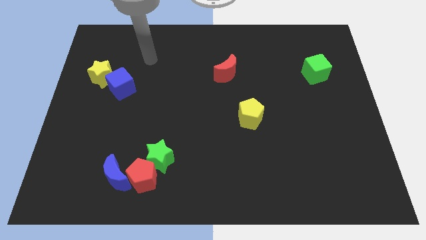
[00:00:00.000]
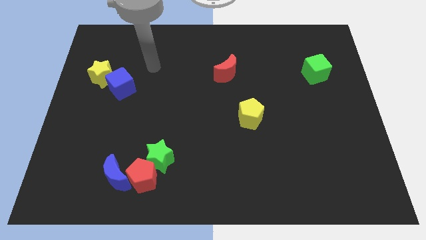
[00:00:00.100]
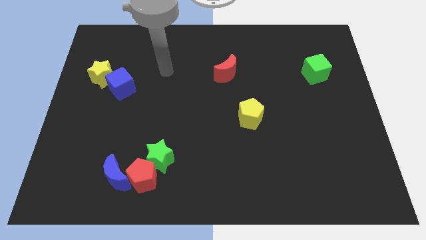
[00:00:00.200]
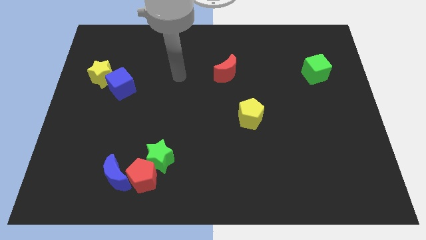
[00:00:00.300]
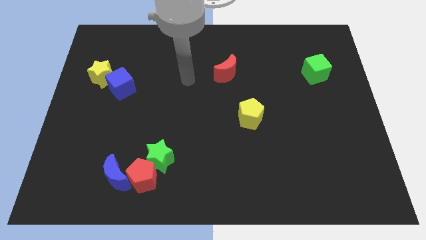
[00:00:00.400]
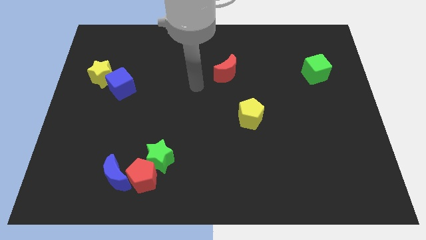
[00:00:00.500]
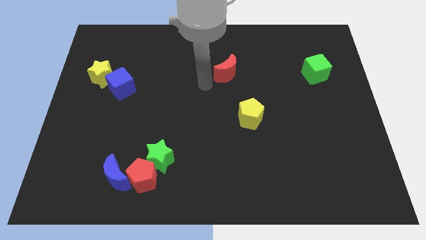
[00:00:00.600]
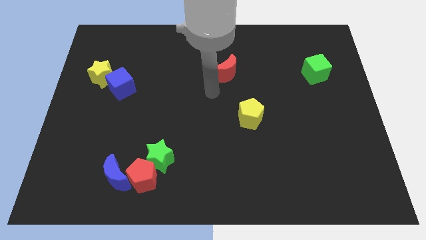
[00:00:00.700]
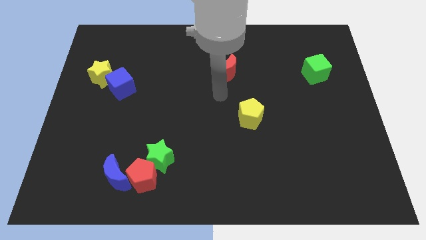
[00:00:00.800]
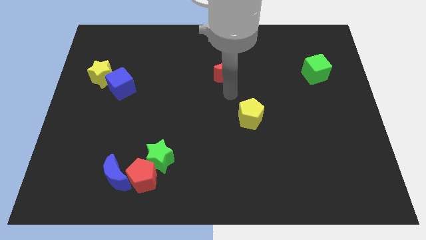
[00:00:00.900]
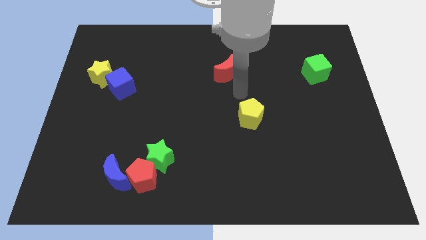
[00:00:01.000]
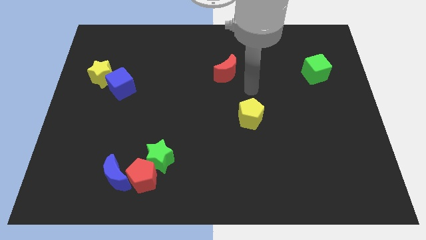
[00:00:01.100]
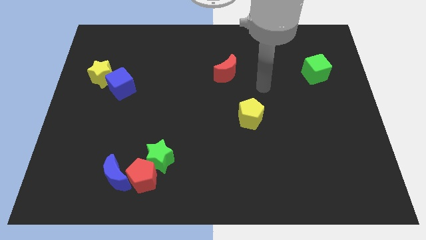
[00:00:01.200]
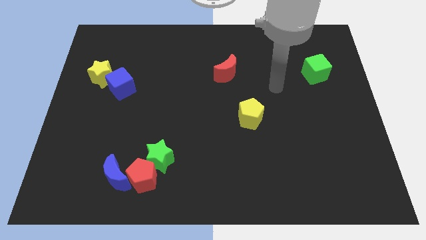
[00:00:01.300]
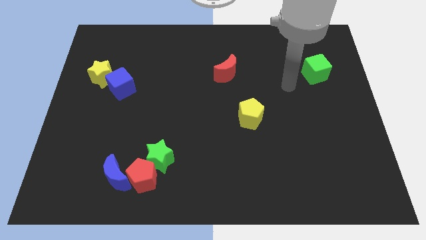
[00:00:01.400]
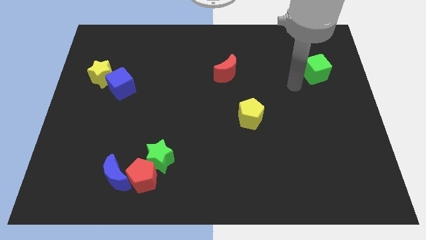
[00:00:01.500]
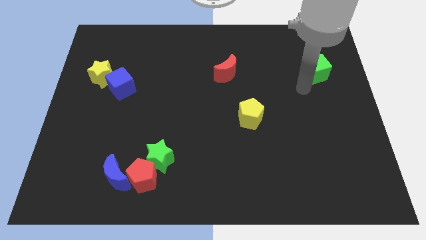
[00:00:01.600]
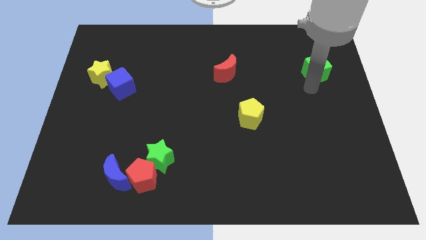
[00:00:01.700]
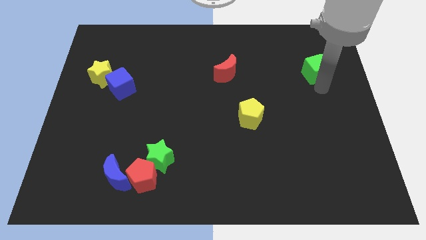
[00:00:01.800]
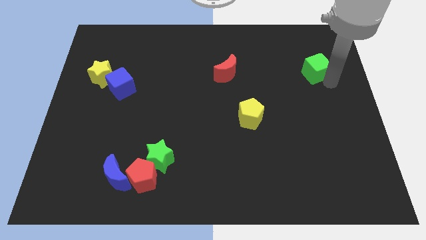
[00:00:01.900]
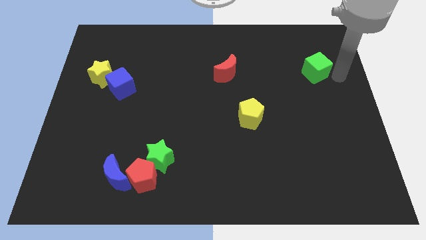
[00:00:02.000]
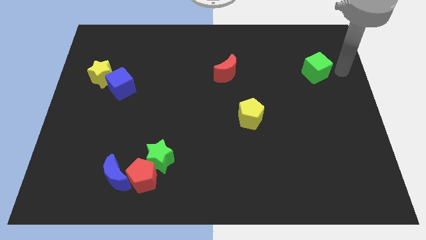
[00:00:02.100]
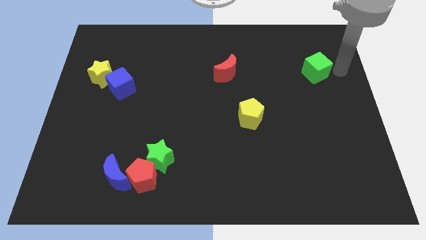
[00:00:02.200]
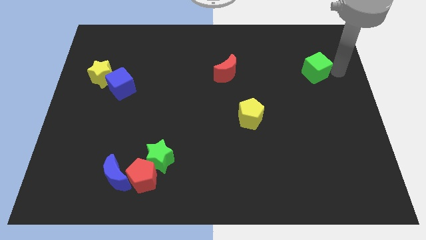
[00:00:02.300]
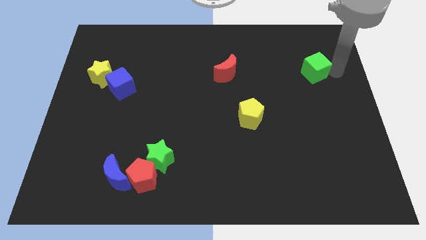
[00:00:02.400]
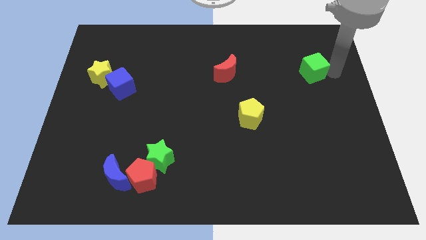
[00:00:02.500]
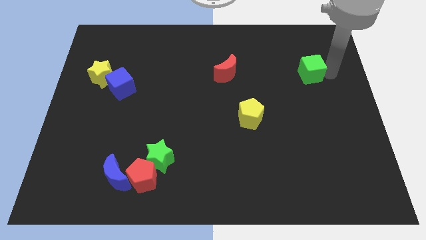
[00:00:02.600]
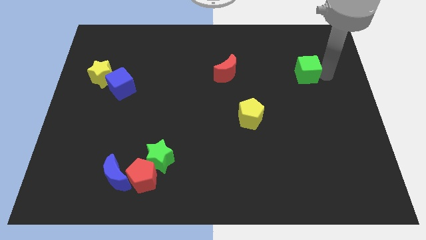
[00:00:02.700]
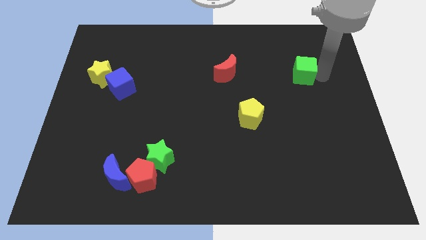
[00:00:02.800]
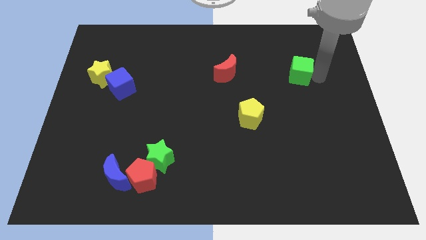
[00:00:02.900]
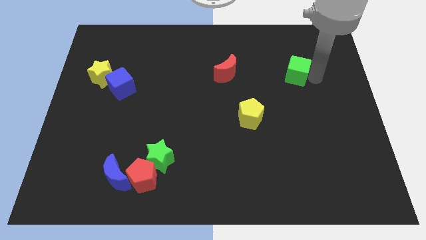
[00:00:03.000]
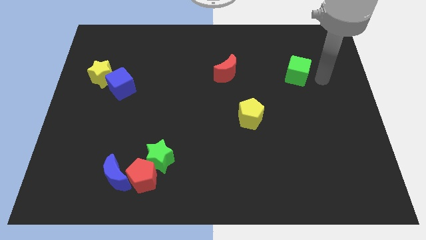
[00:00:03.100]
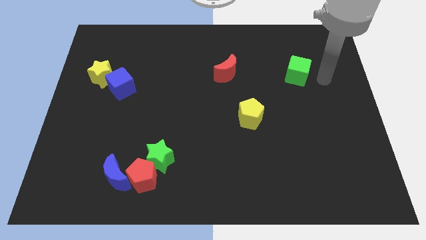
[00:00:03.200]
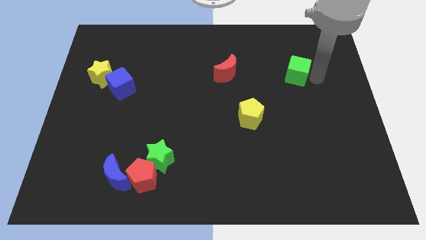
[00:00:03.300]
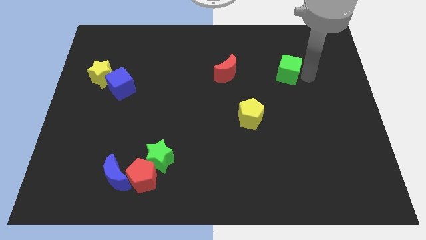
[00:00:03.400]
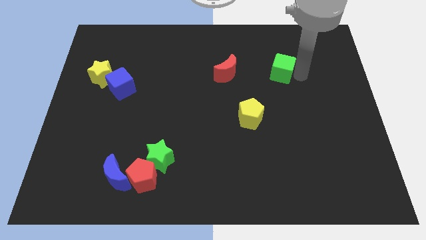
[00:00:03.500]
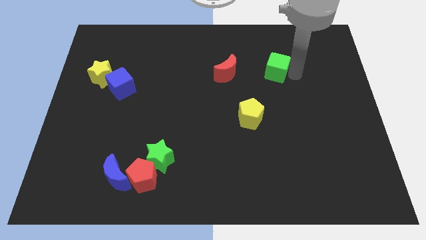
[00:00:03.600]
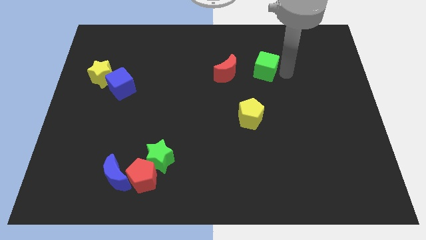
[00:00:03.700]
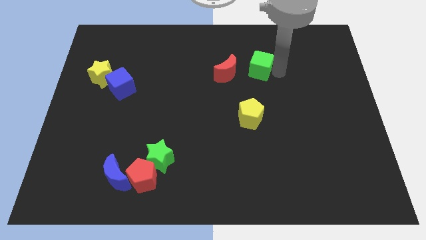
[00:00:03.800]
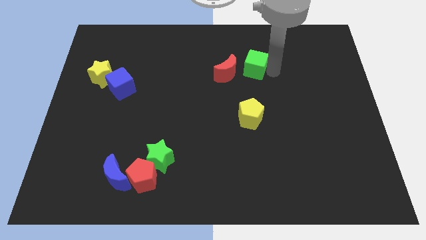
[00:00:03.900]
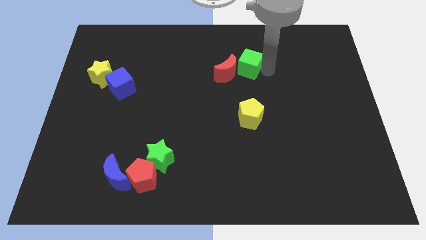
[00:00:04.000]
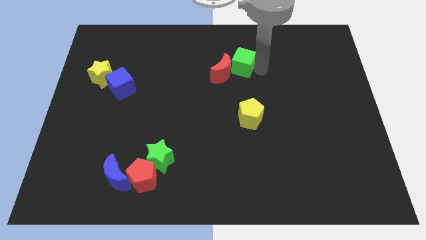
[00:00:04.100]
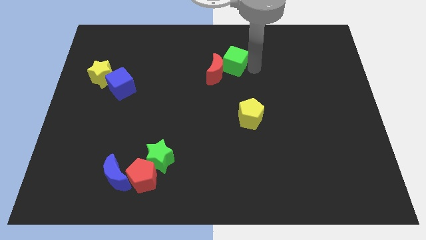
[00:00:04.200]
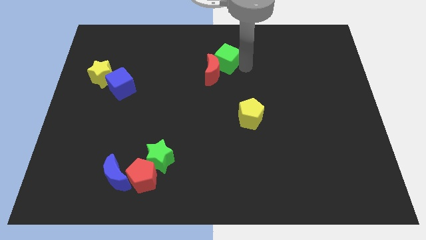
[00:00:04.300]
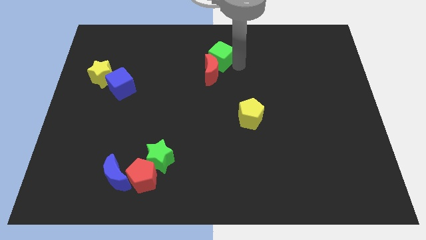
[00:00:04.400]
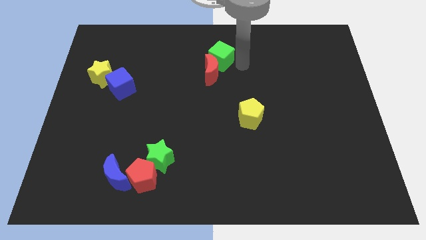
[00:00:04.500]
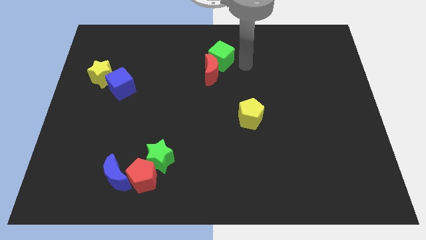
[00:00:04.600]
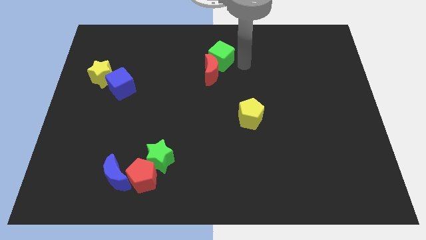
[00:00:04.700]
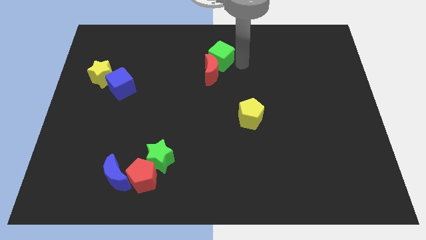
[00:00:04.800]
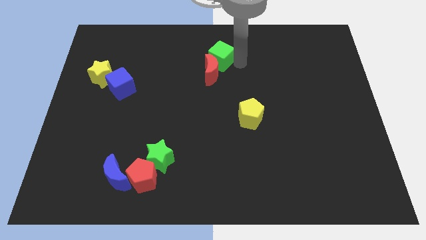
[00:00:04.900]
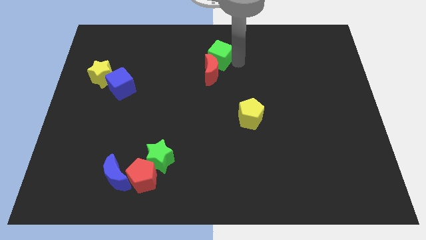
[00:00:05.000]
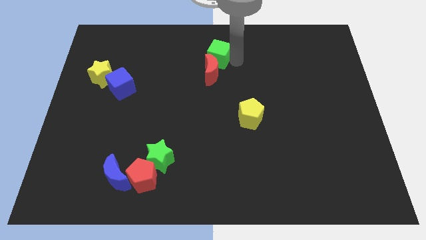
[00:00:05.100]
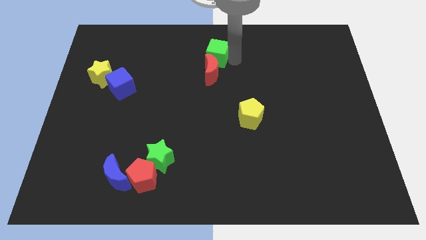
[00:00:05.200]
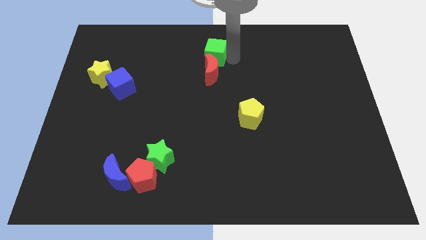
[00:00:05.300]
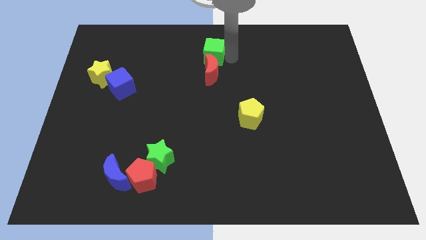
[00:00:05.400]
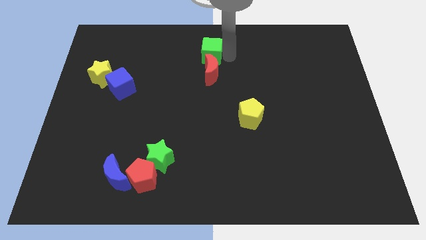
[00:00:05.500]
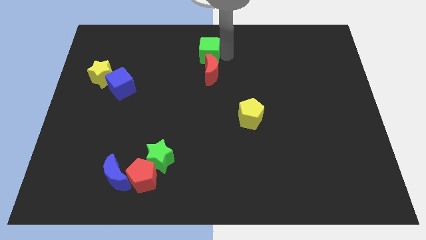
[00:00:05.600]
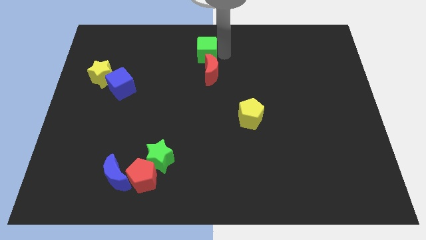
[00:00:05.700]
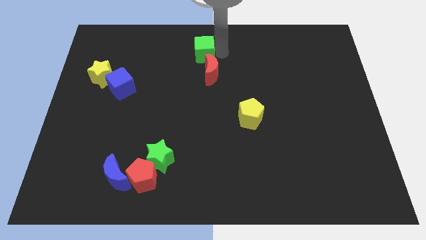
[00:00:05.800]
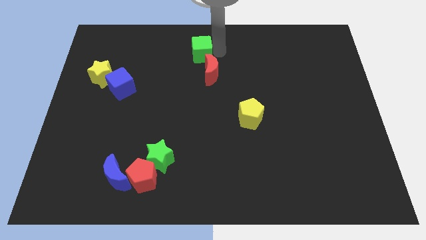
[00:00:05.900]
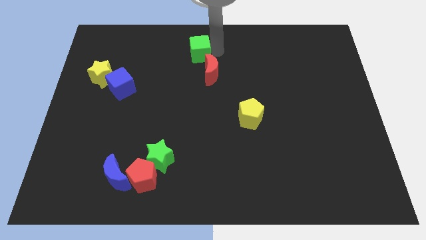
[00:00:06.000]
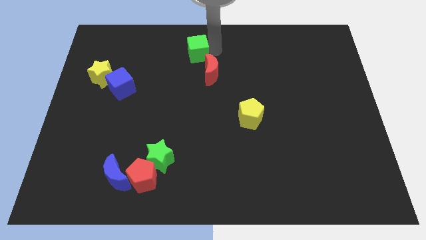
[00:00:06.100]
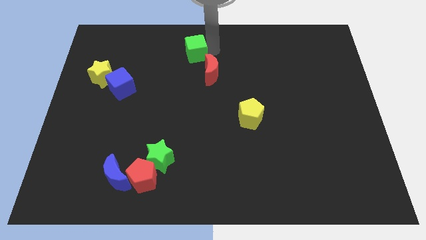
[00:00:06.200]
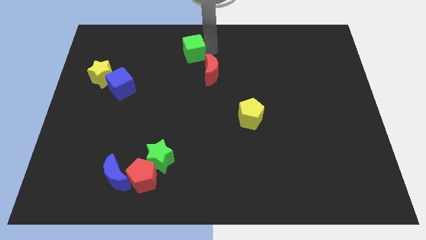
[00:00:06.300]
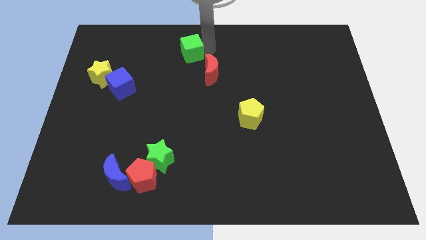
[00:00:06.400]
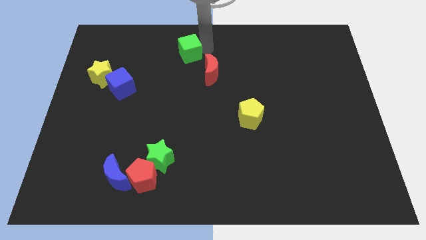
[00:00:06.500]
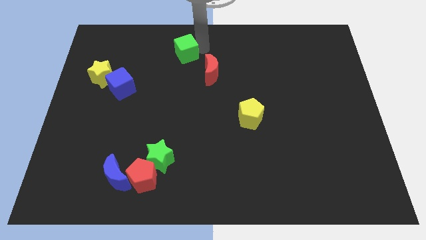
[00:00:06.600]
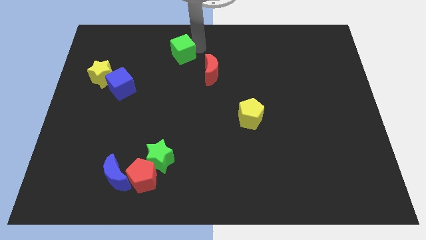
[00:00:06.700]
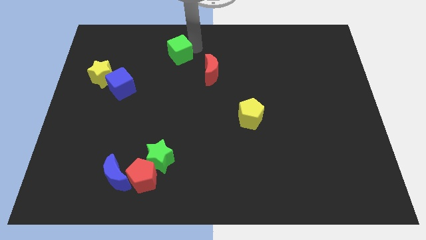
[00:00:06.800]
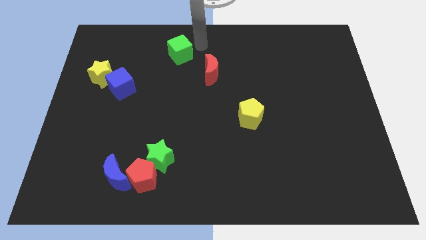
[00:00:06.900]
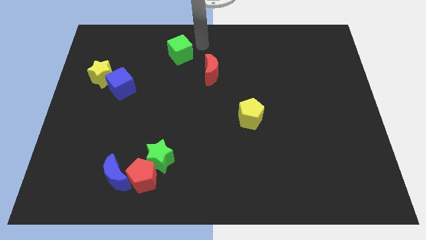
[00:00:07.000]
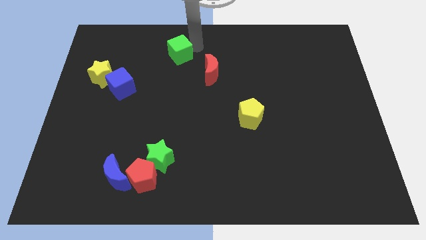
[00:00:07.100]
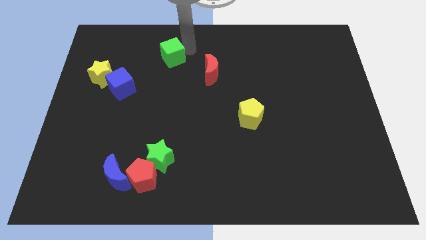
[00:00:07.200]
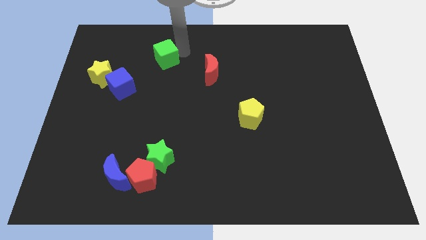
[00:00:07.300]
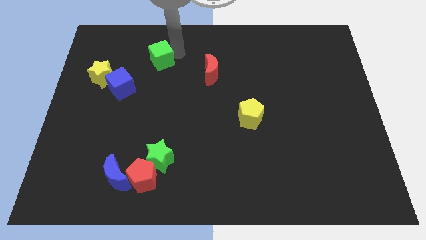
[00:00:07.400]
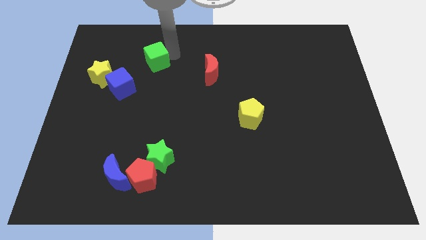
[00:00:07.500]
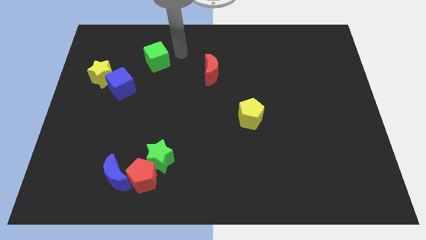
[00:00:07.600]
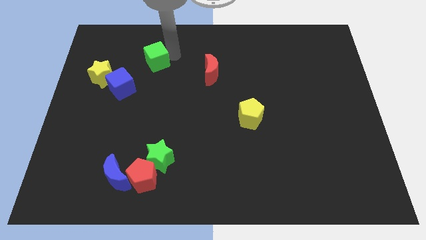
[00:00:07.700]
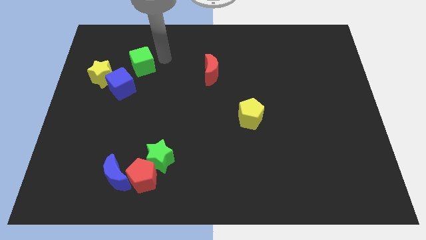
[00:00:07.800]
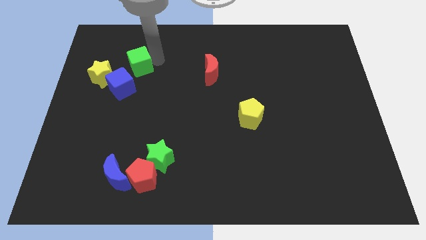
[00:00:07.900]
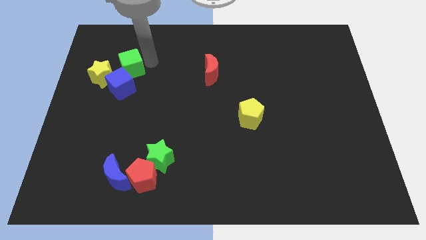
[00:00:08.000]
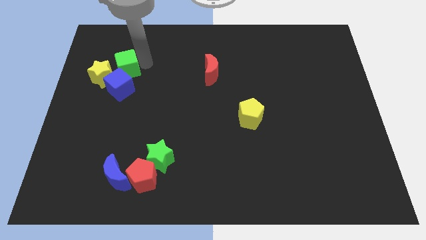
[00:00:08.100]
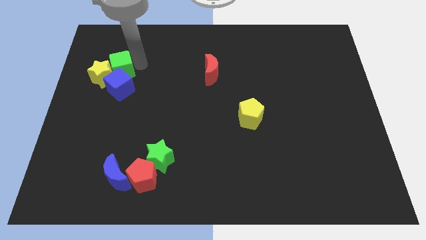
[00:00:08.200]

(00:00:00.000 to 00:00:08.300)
move the green cube towards the yellow star
